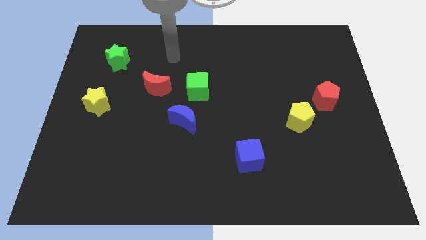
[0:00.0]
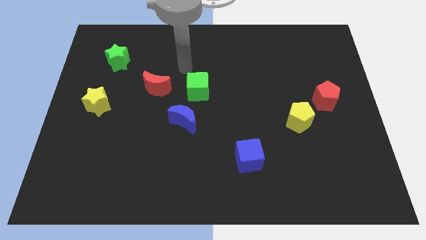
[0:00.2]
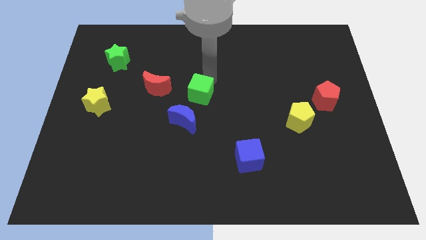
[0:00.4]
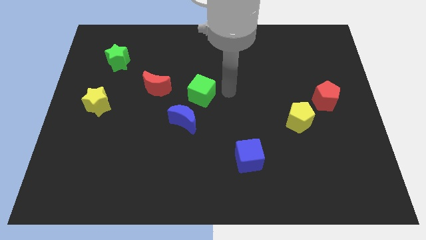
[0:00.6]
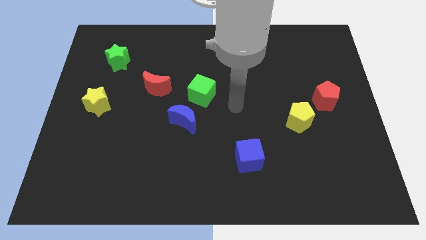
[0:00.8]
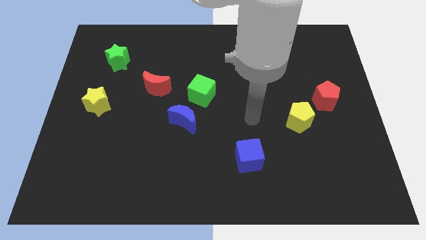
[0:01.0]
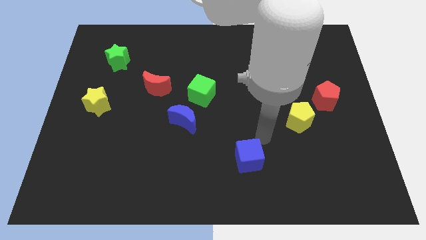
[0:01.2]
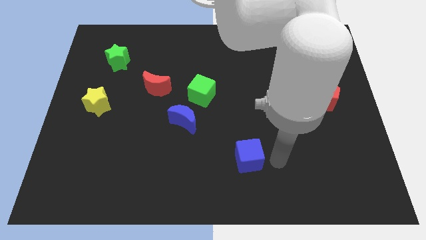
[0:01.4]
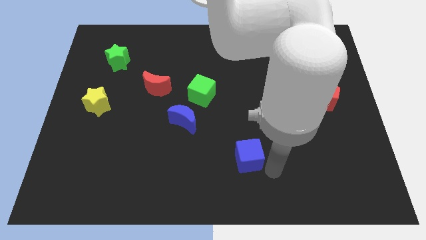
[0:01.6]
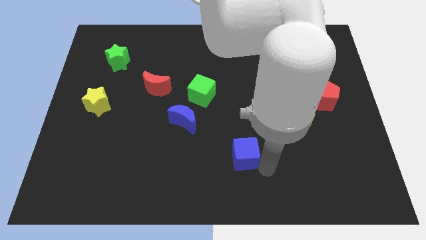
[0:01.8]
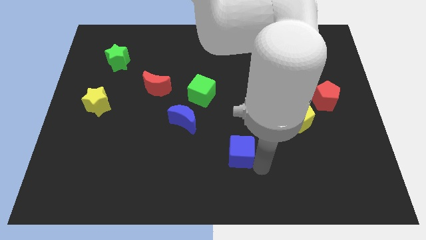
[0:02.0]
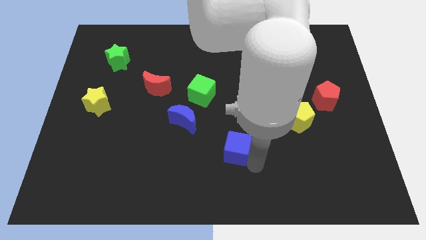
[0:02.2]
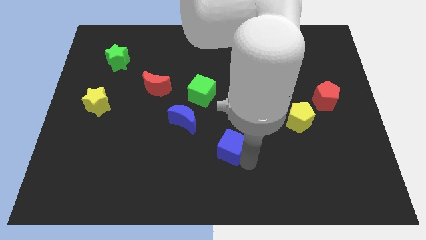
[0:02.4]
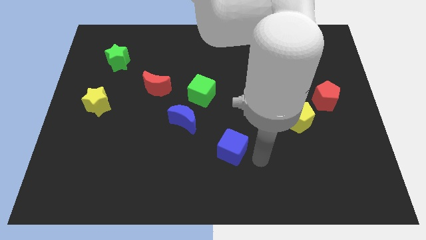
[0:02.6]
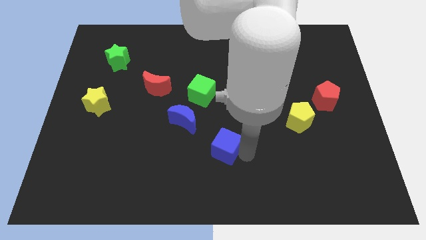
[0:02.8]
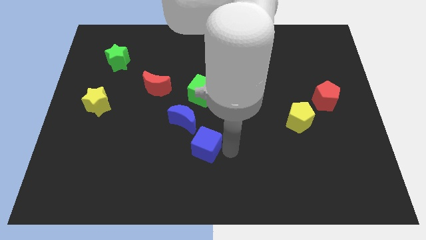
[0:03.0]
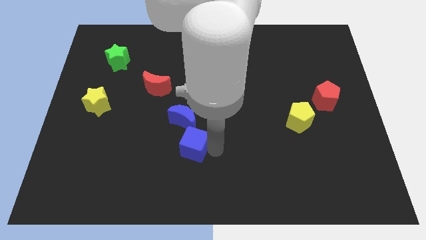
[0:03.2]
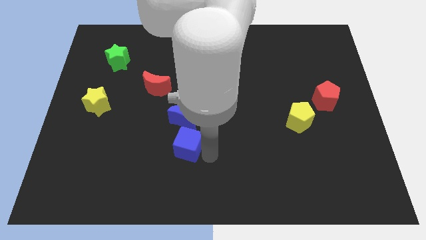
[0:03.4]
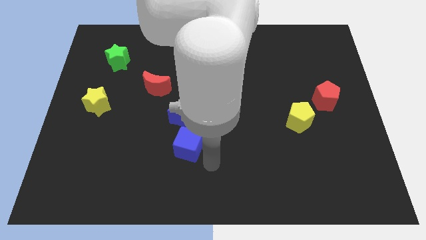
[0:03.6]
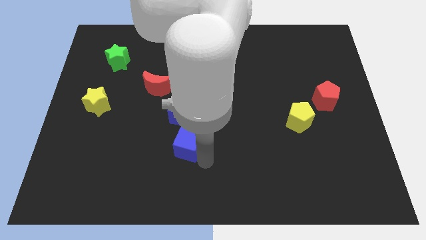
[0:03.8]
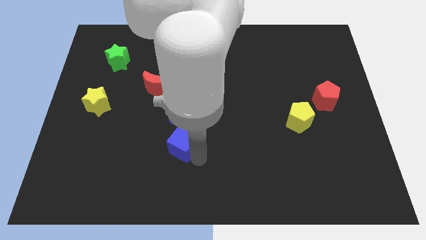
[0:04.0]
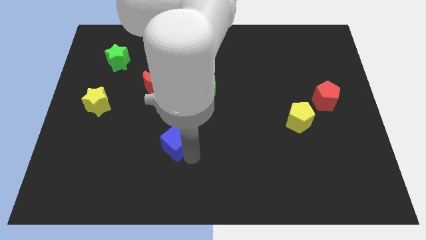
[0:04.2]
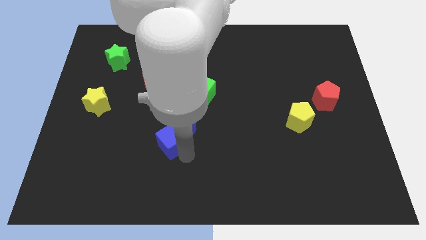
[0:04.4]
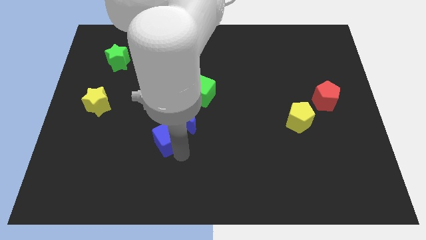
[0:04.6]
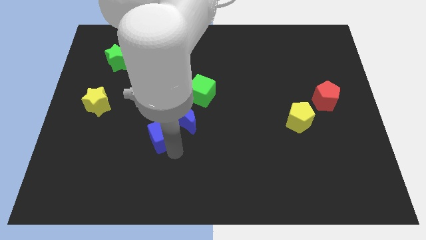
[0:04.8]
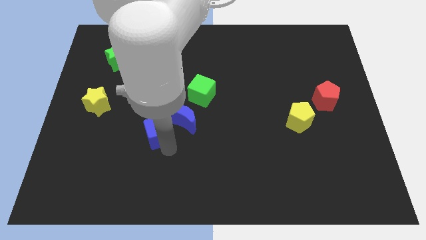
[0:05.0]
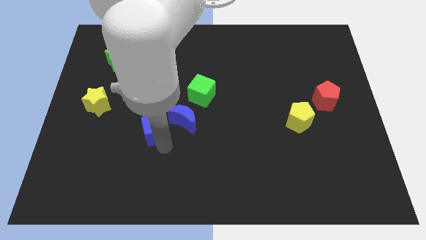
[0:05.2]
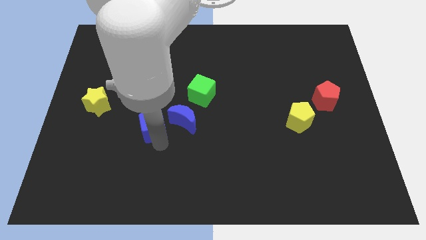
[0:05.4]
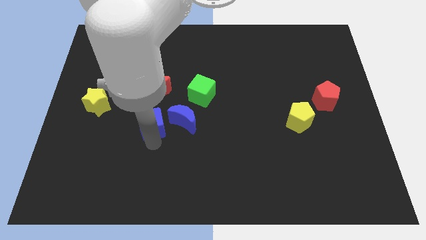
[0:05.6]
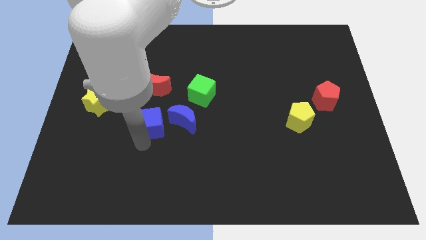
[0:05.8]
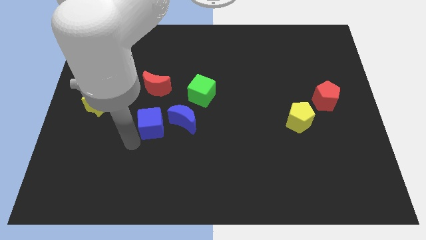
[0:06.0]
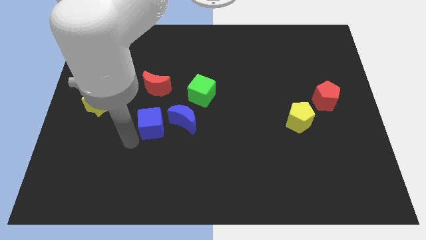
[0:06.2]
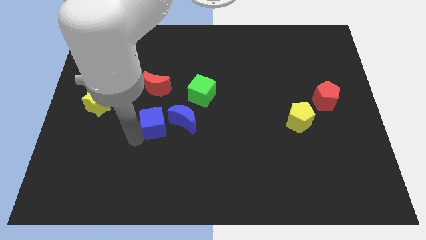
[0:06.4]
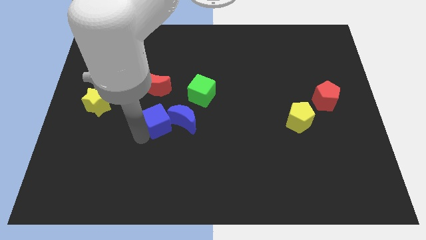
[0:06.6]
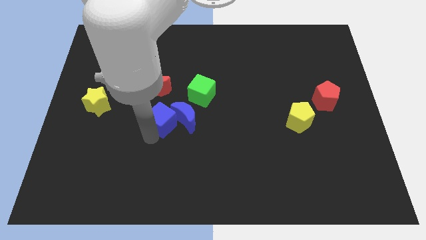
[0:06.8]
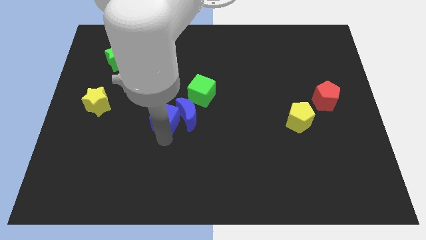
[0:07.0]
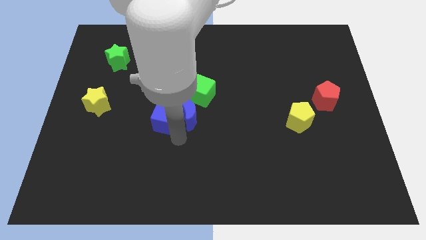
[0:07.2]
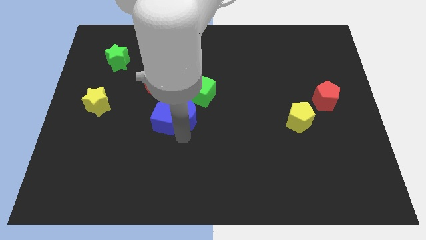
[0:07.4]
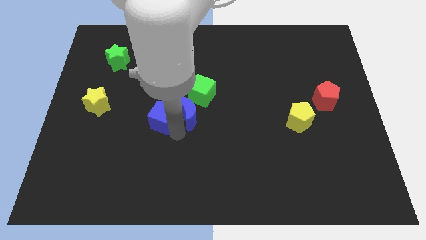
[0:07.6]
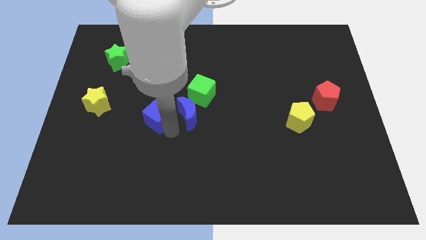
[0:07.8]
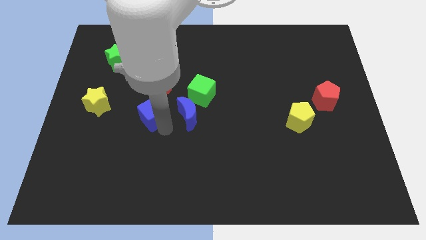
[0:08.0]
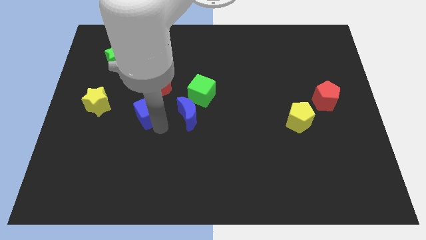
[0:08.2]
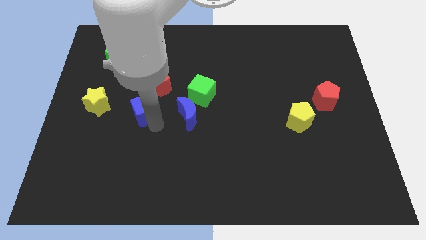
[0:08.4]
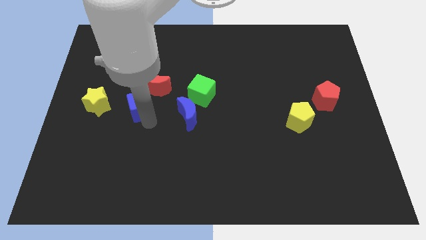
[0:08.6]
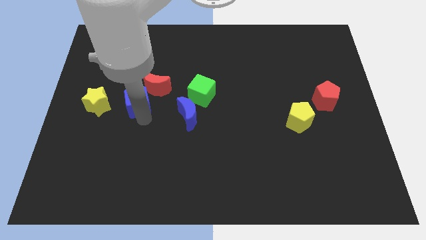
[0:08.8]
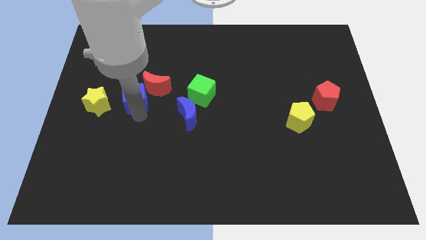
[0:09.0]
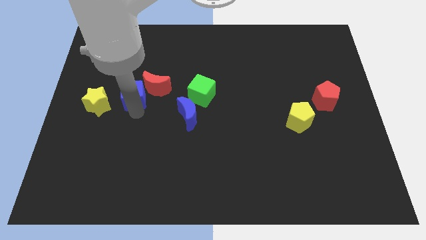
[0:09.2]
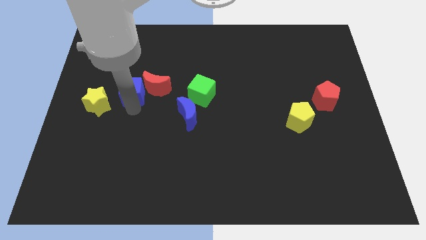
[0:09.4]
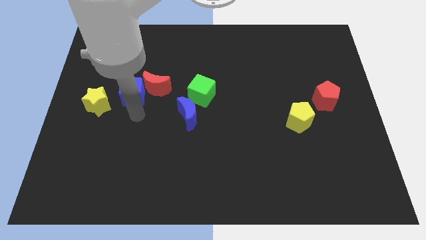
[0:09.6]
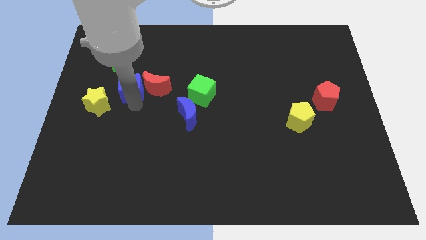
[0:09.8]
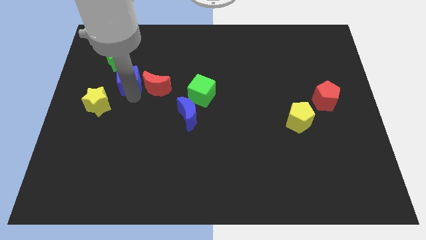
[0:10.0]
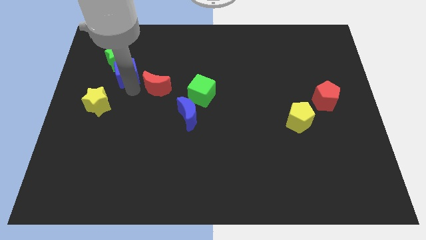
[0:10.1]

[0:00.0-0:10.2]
push the blue cube next to the green star

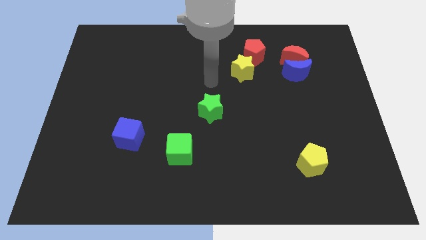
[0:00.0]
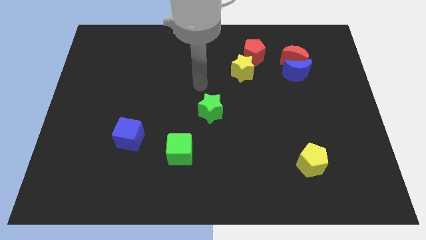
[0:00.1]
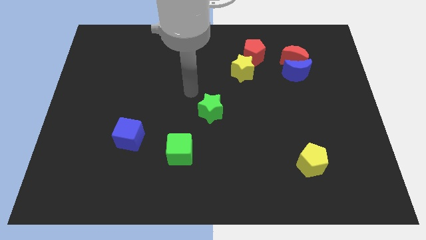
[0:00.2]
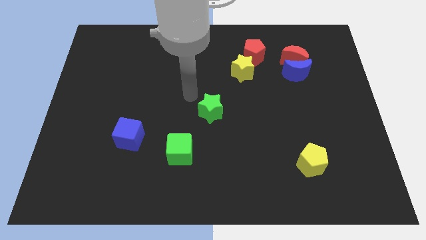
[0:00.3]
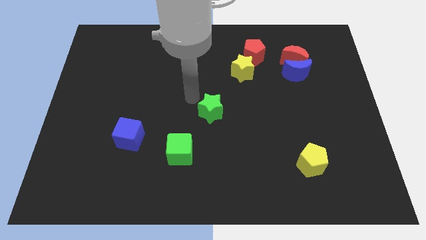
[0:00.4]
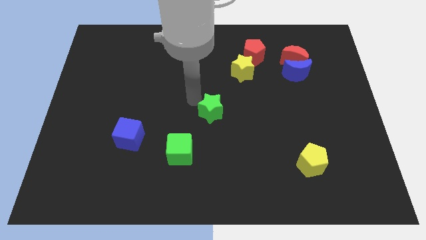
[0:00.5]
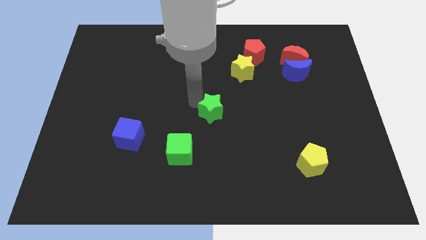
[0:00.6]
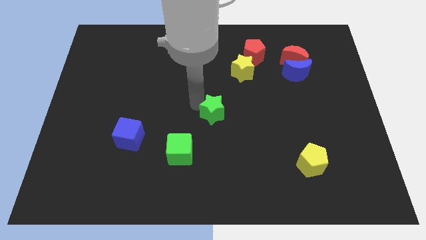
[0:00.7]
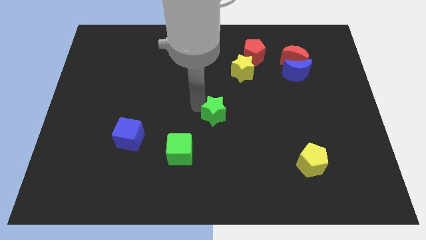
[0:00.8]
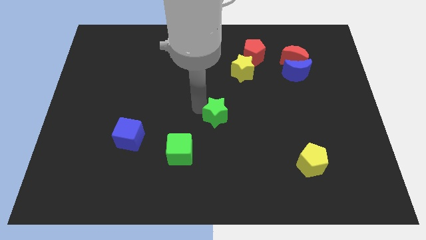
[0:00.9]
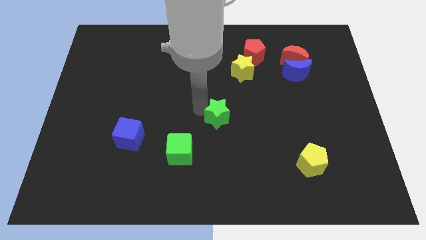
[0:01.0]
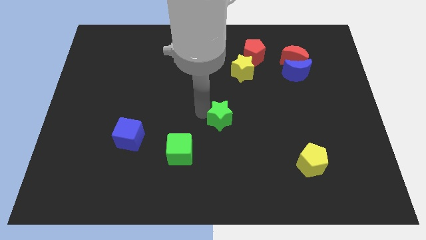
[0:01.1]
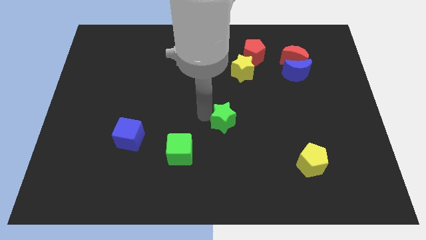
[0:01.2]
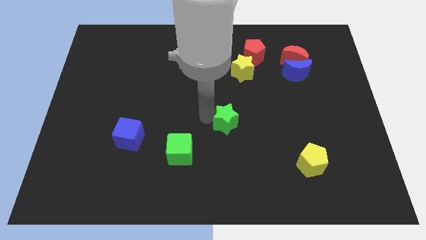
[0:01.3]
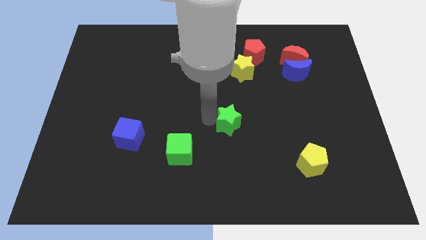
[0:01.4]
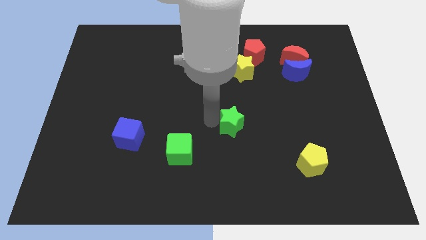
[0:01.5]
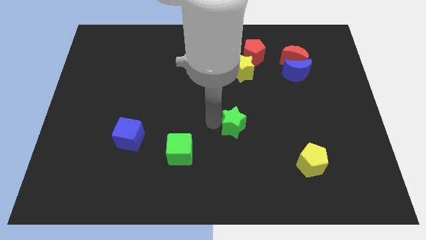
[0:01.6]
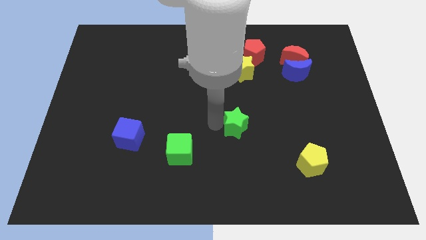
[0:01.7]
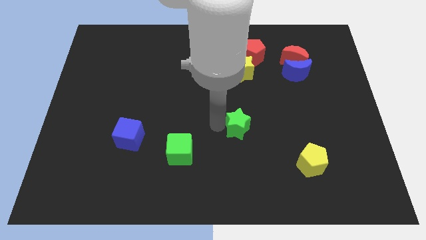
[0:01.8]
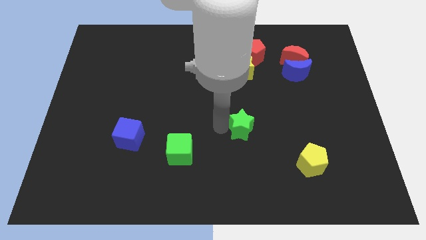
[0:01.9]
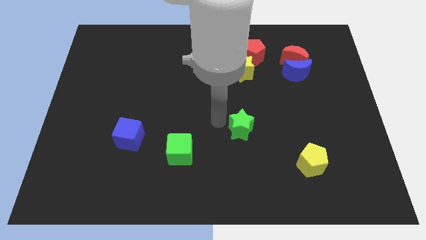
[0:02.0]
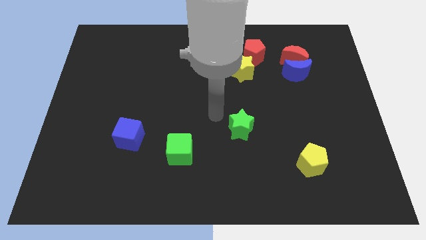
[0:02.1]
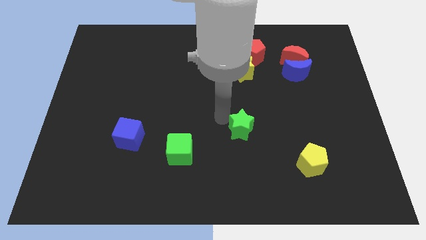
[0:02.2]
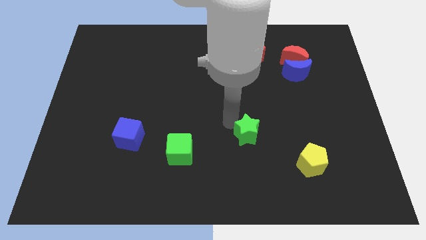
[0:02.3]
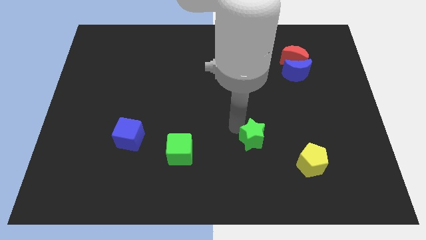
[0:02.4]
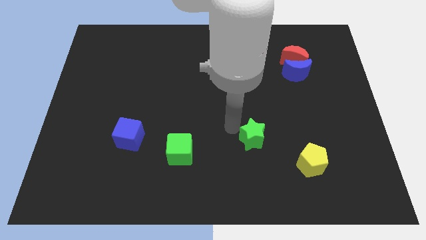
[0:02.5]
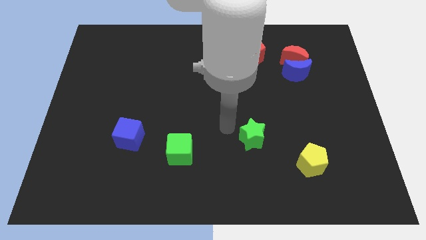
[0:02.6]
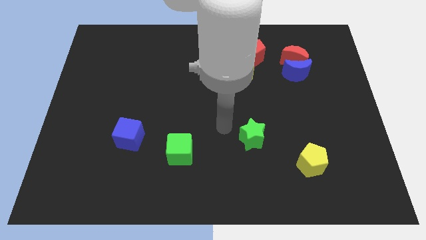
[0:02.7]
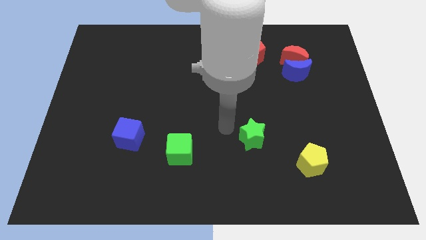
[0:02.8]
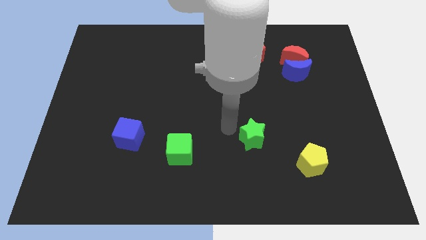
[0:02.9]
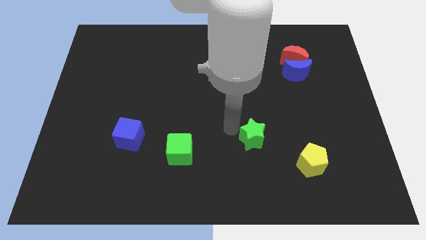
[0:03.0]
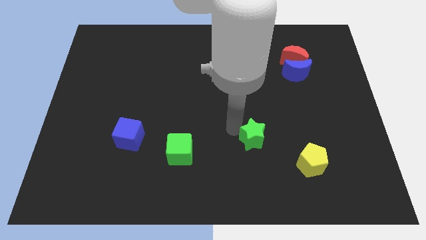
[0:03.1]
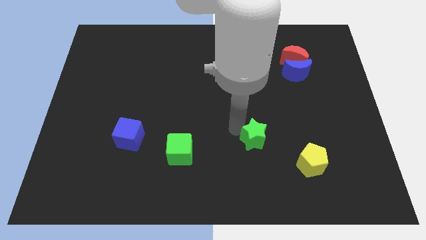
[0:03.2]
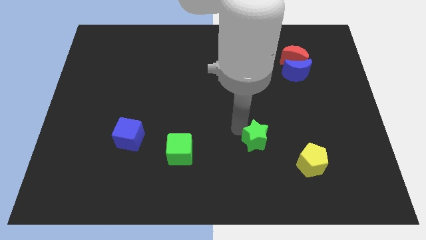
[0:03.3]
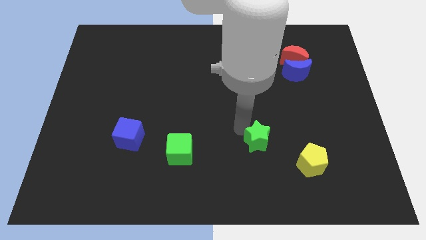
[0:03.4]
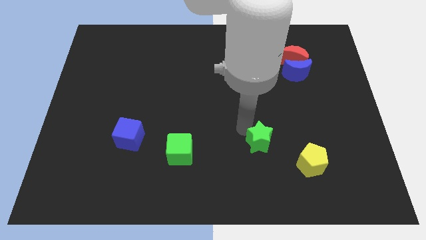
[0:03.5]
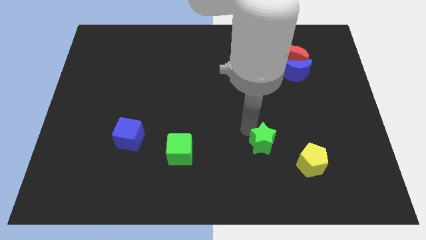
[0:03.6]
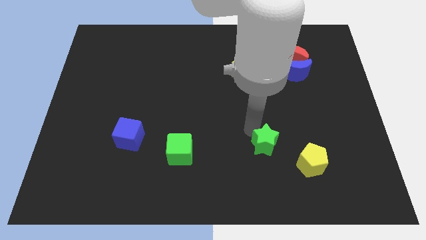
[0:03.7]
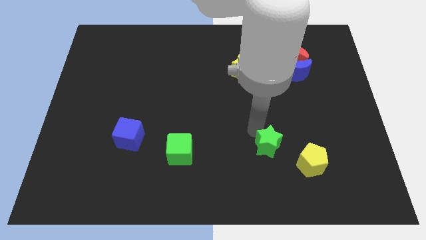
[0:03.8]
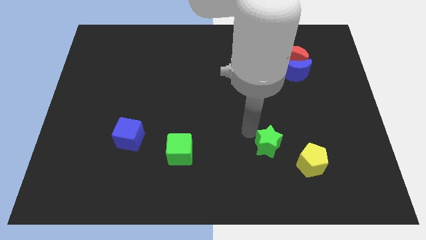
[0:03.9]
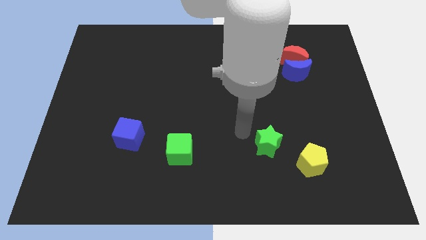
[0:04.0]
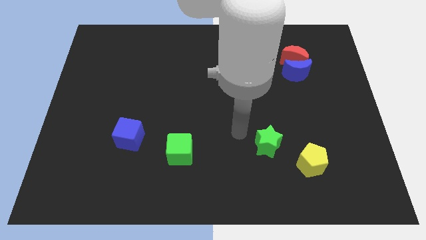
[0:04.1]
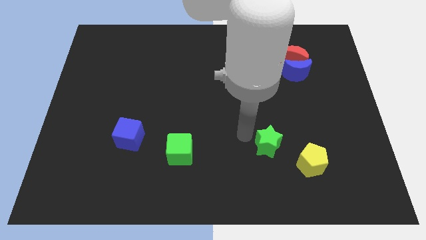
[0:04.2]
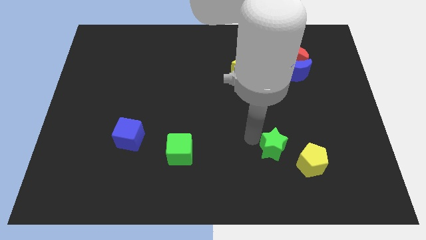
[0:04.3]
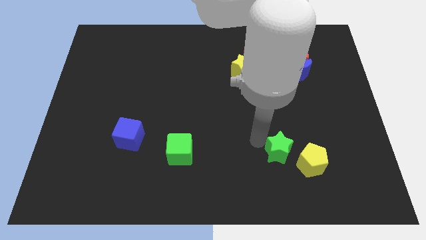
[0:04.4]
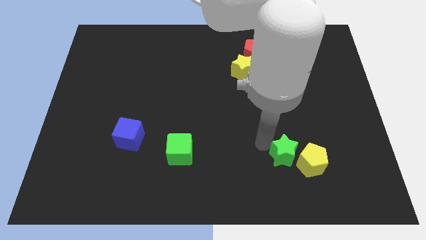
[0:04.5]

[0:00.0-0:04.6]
put the green star next to the yellow pentagon
